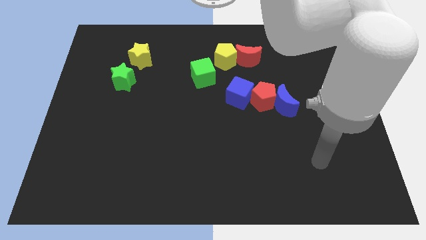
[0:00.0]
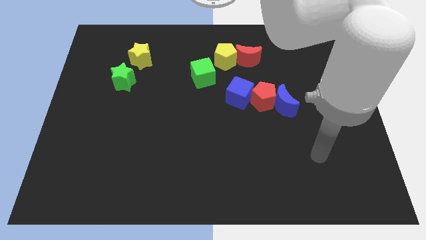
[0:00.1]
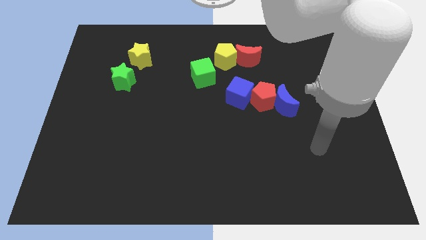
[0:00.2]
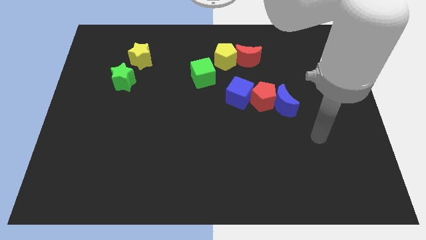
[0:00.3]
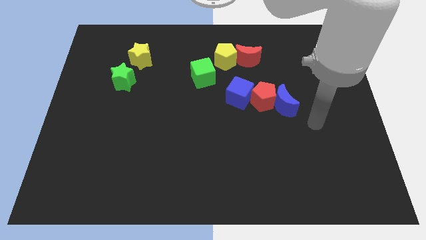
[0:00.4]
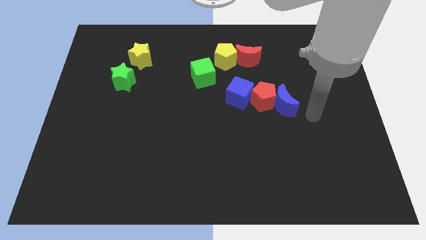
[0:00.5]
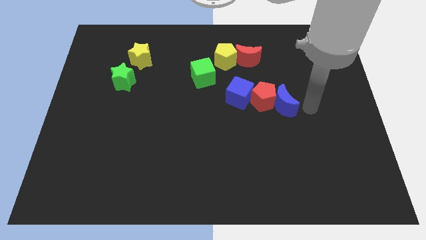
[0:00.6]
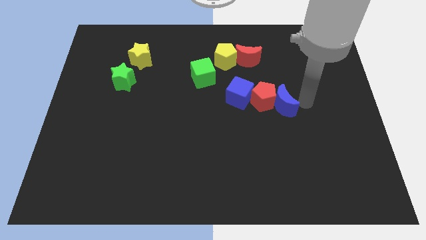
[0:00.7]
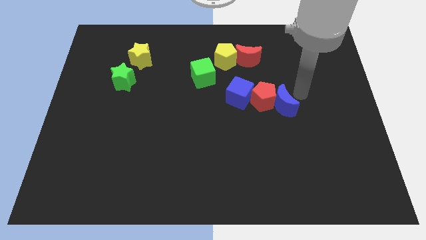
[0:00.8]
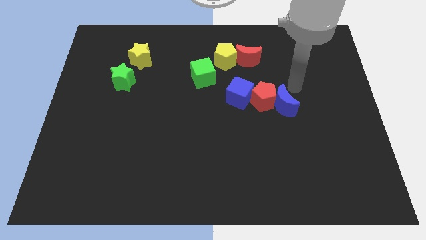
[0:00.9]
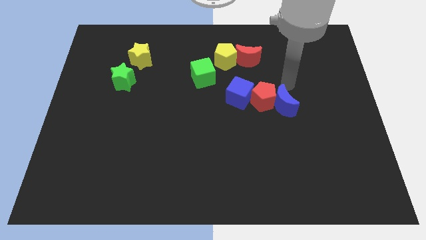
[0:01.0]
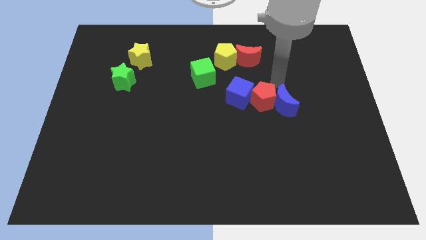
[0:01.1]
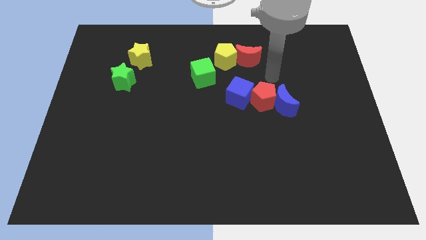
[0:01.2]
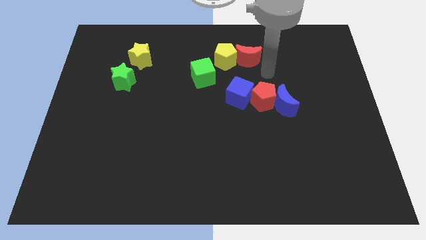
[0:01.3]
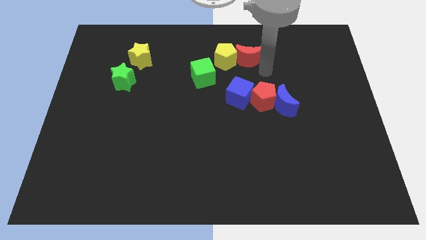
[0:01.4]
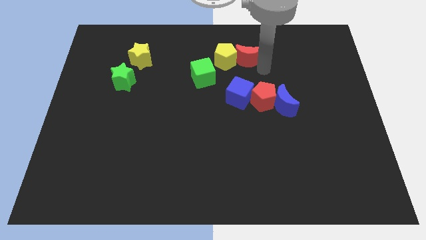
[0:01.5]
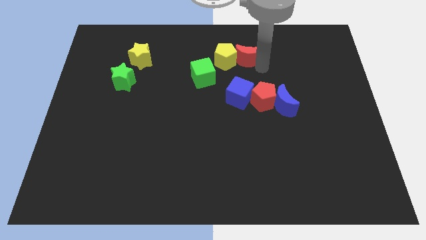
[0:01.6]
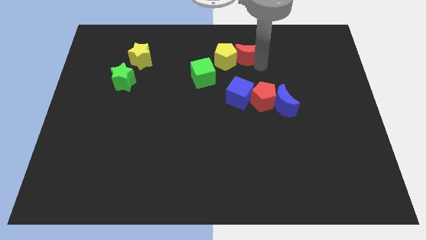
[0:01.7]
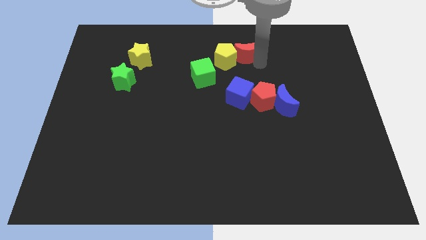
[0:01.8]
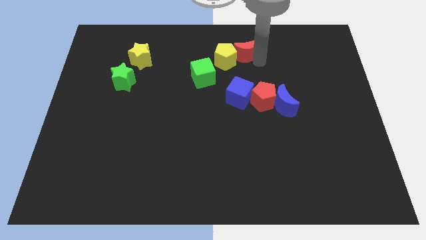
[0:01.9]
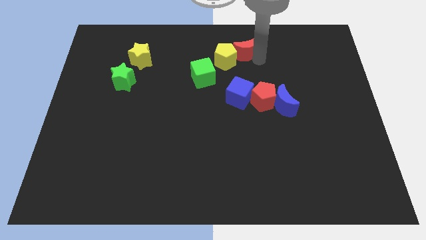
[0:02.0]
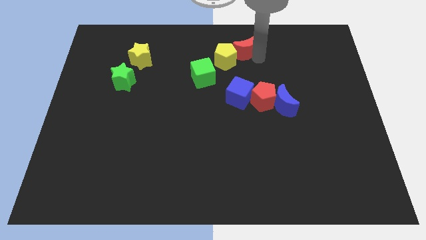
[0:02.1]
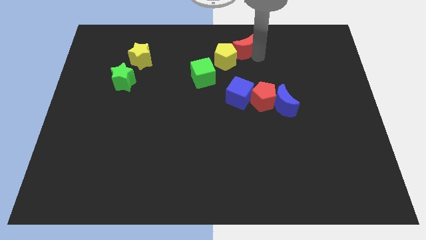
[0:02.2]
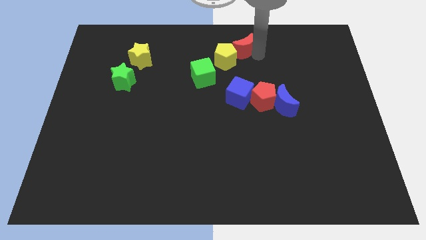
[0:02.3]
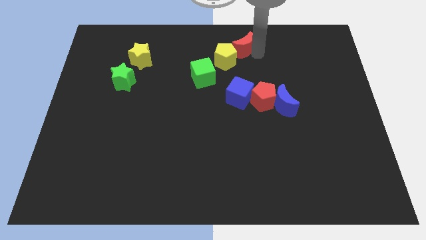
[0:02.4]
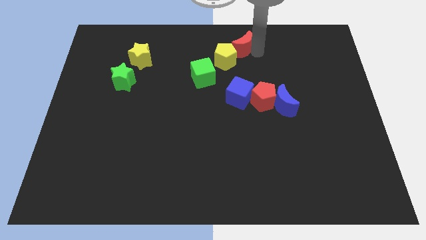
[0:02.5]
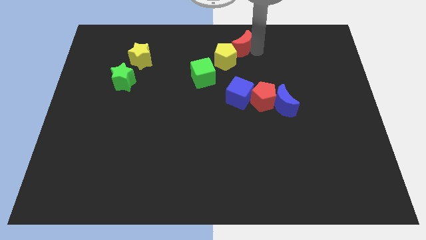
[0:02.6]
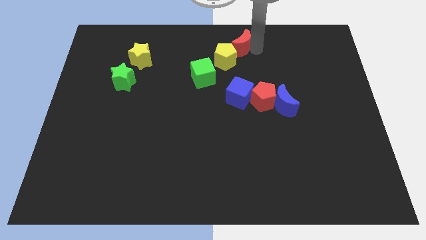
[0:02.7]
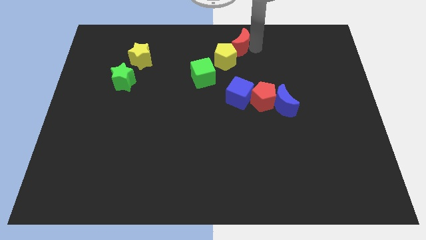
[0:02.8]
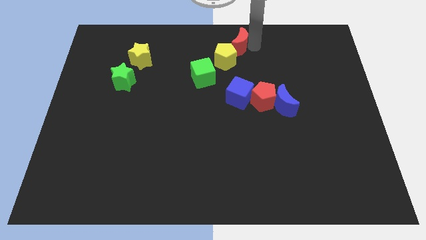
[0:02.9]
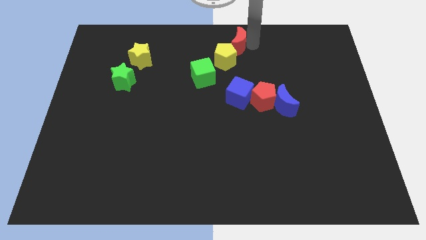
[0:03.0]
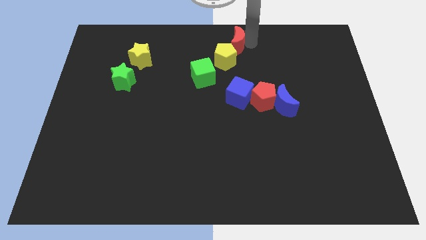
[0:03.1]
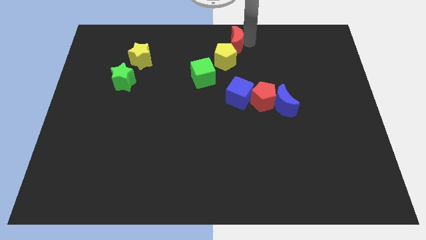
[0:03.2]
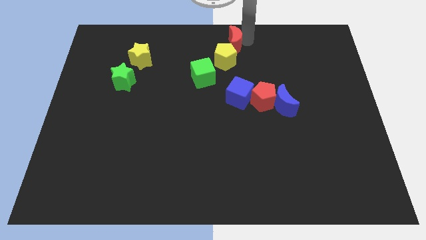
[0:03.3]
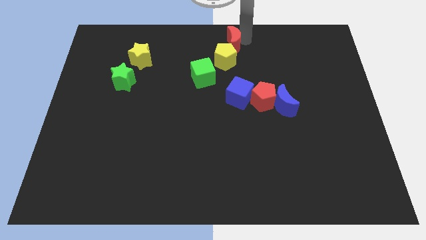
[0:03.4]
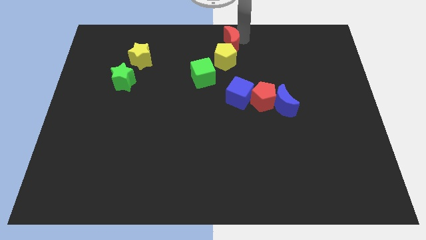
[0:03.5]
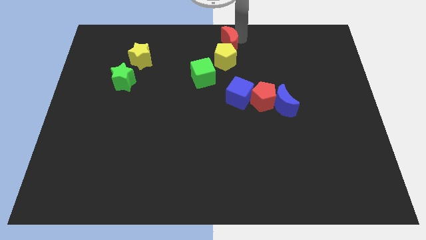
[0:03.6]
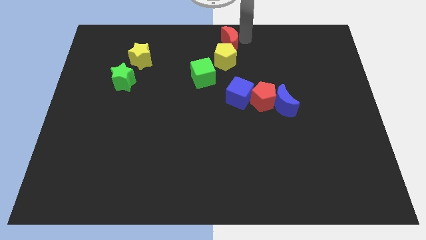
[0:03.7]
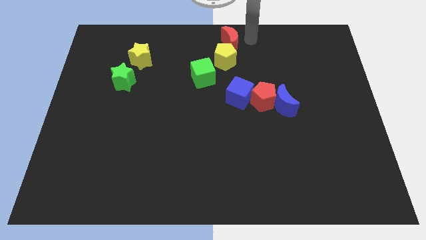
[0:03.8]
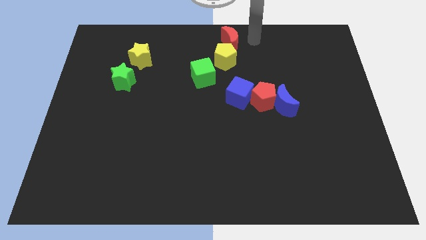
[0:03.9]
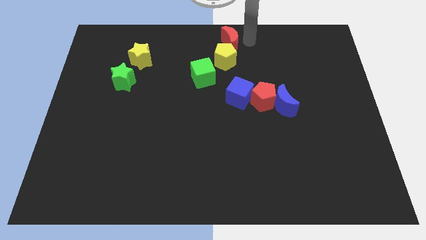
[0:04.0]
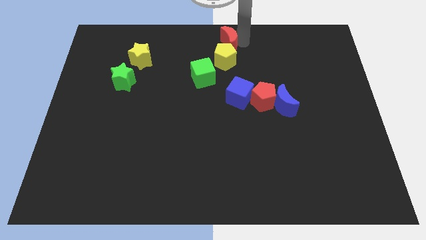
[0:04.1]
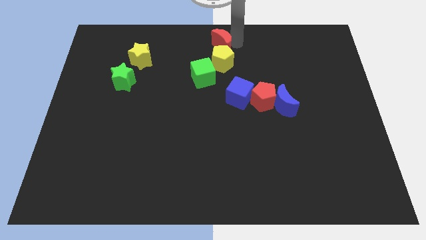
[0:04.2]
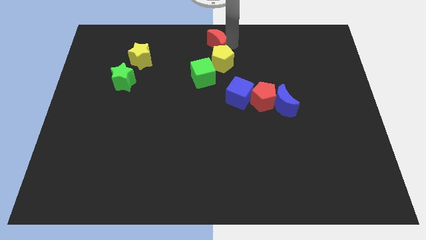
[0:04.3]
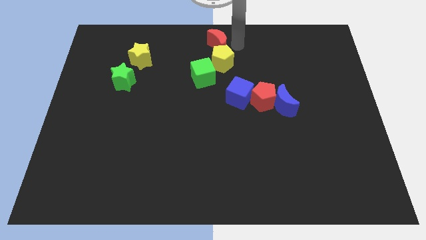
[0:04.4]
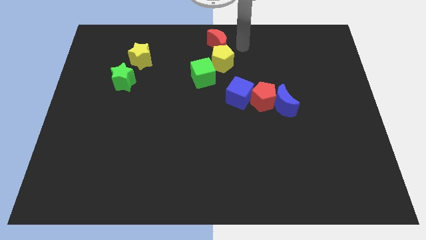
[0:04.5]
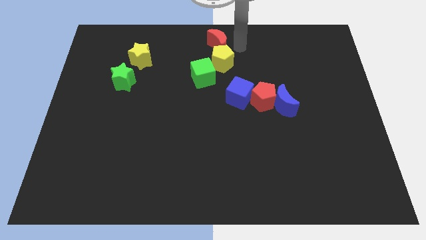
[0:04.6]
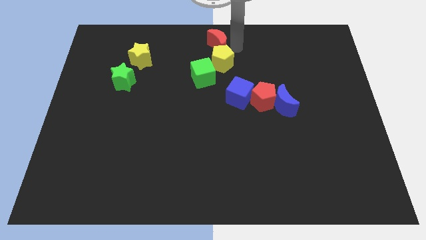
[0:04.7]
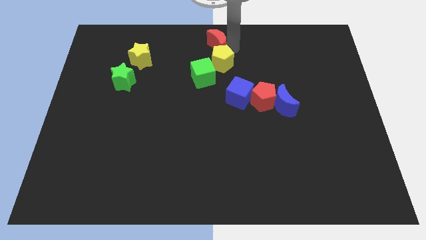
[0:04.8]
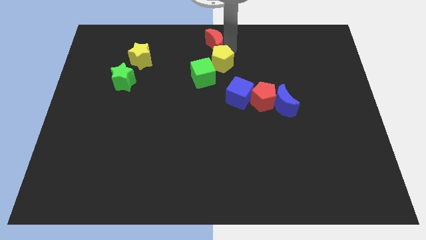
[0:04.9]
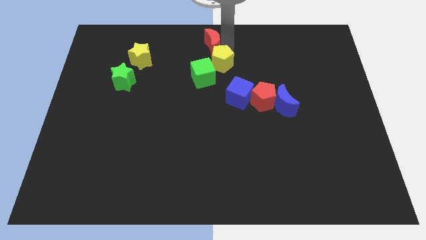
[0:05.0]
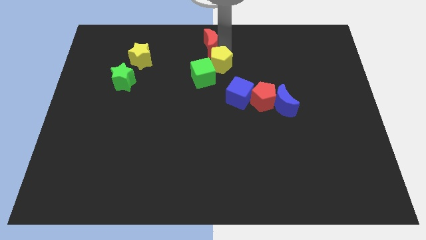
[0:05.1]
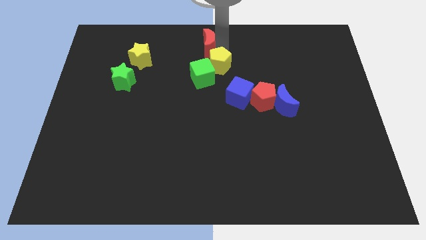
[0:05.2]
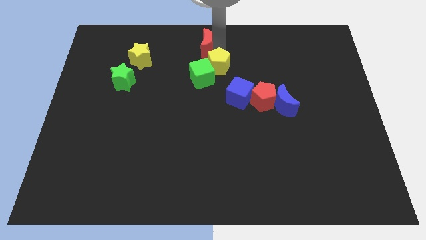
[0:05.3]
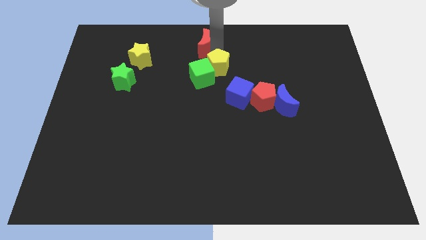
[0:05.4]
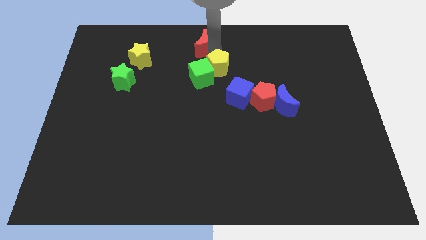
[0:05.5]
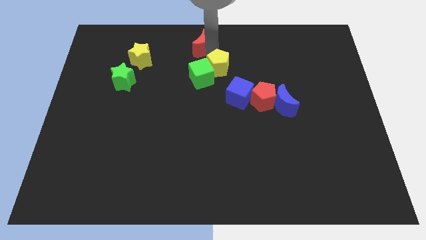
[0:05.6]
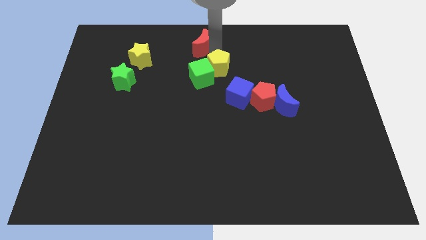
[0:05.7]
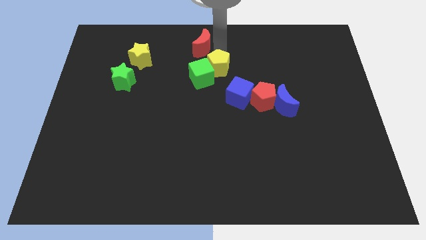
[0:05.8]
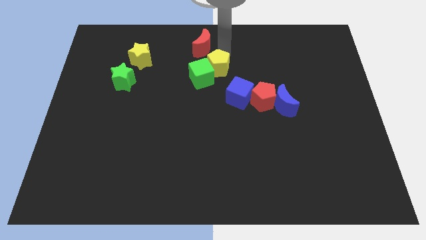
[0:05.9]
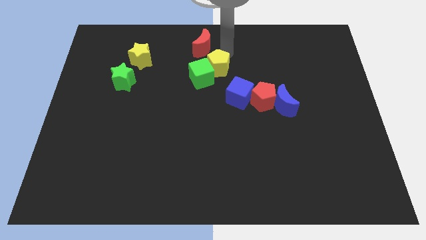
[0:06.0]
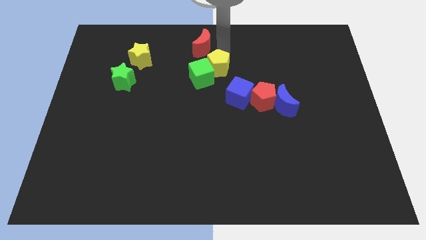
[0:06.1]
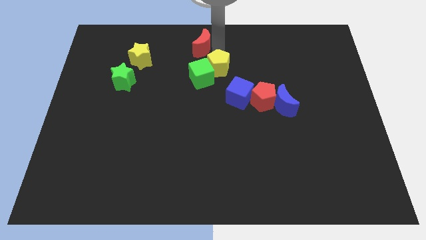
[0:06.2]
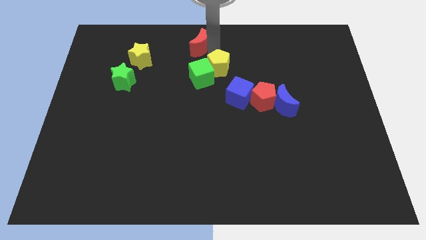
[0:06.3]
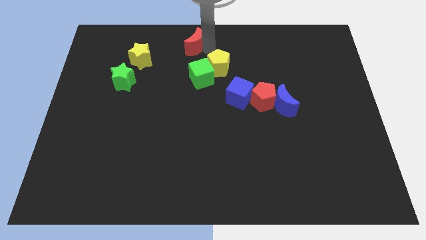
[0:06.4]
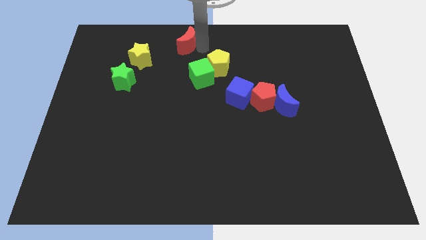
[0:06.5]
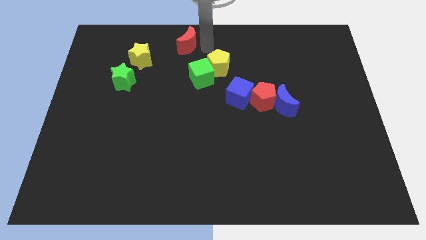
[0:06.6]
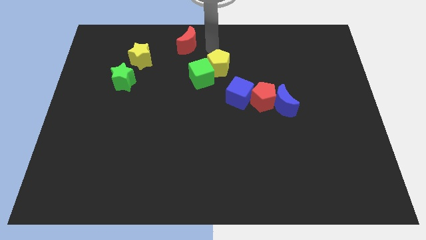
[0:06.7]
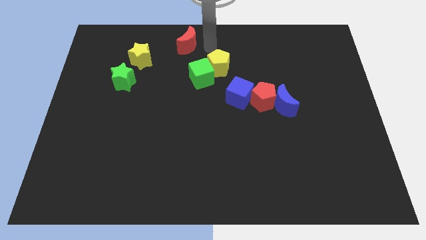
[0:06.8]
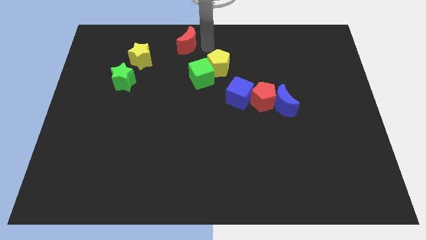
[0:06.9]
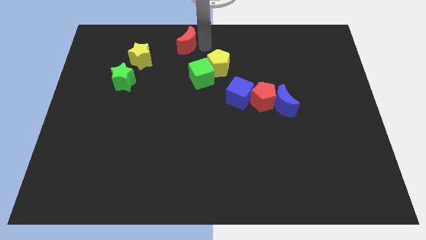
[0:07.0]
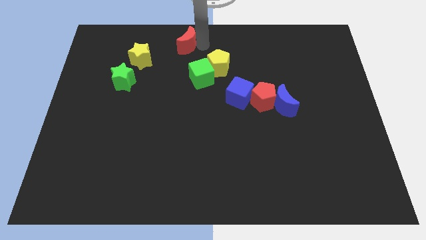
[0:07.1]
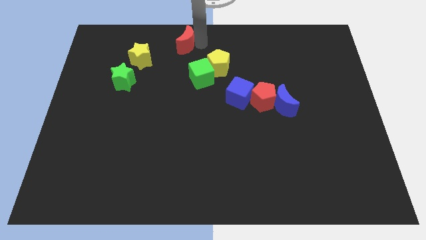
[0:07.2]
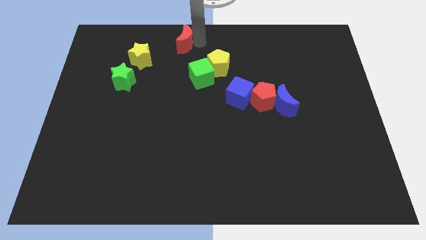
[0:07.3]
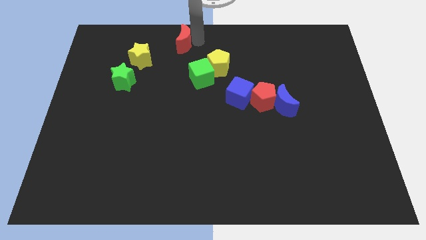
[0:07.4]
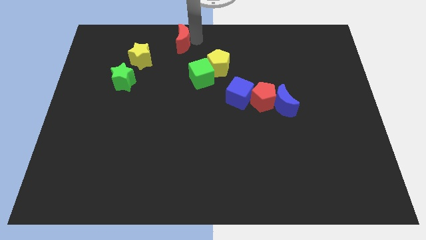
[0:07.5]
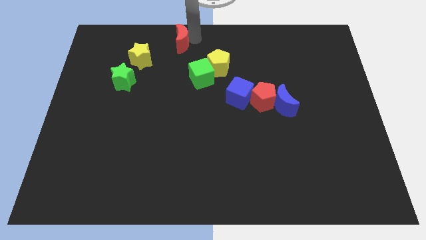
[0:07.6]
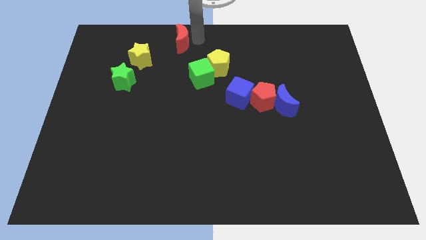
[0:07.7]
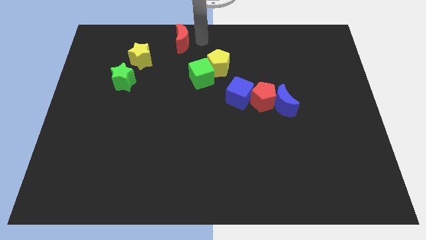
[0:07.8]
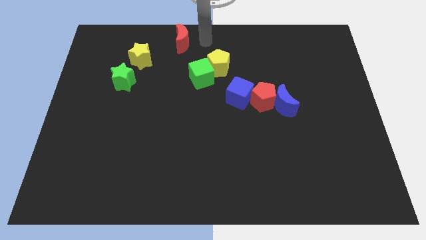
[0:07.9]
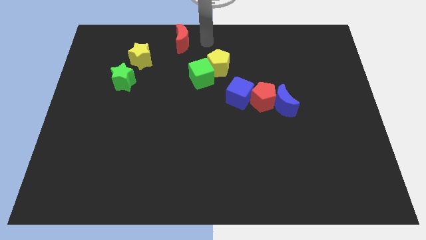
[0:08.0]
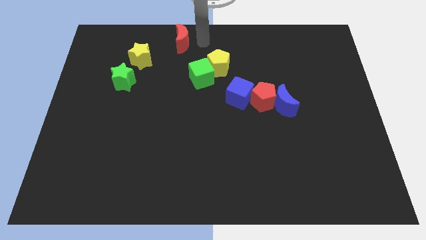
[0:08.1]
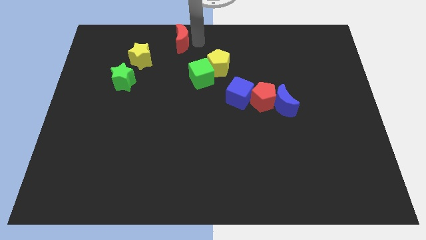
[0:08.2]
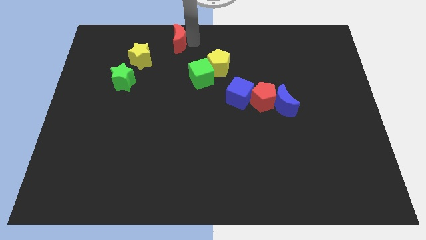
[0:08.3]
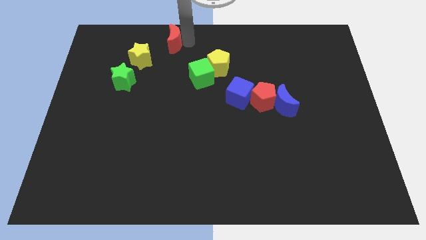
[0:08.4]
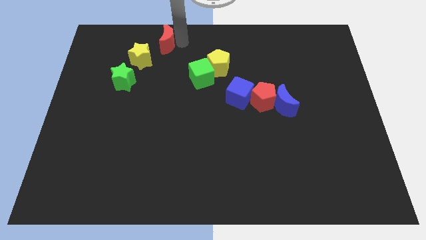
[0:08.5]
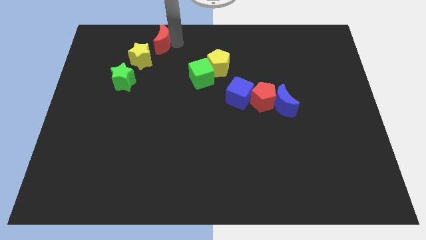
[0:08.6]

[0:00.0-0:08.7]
push the red moon to the left
